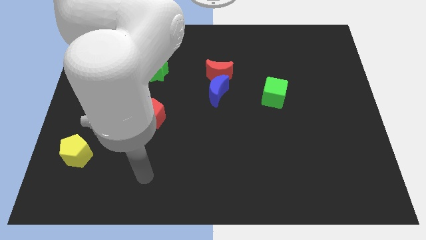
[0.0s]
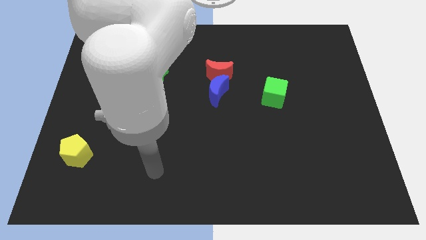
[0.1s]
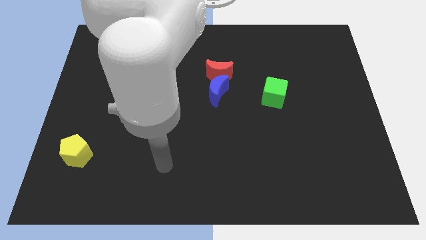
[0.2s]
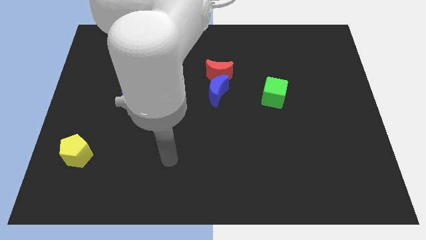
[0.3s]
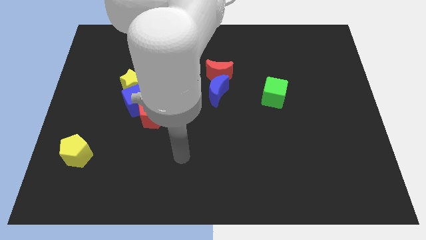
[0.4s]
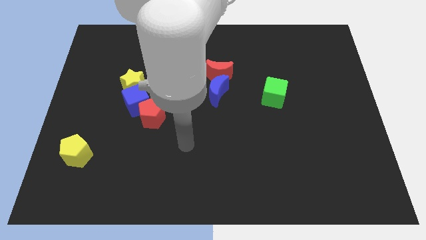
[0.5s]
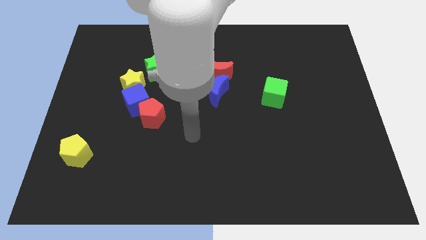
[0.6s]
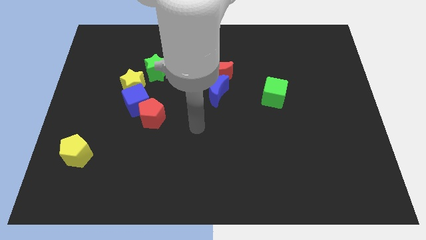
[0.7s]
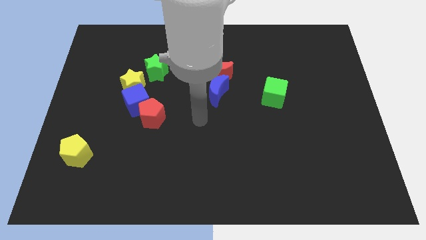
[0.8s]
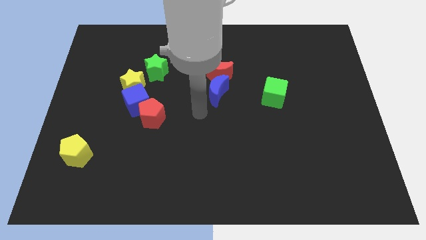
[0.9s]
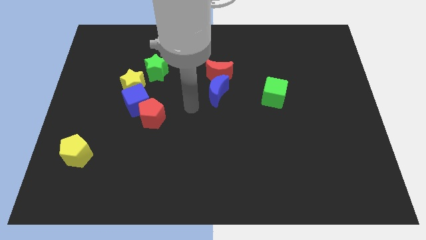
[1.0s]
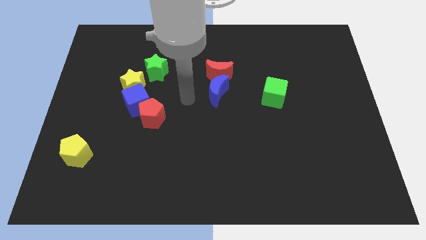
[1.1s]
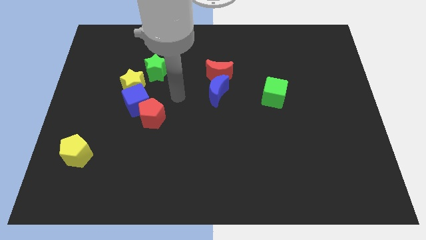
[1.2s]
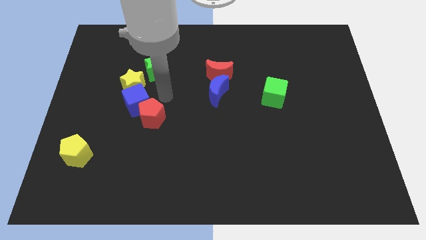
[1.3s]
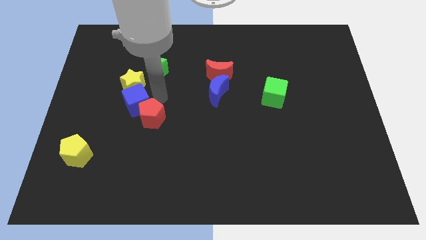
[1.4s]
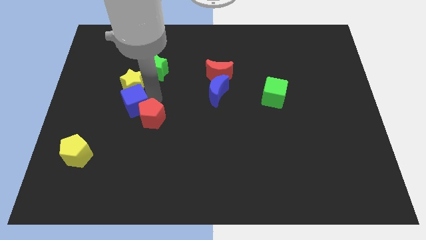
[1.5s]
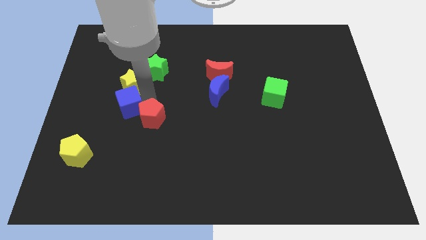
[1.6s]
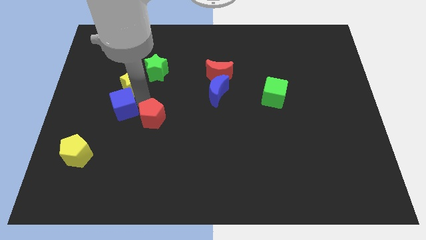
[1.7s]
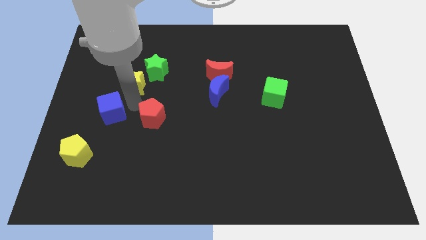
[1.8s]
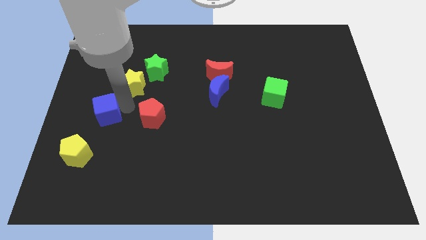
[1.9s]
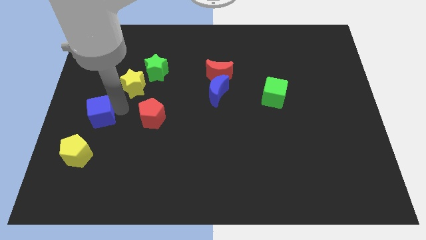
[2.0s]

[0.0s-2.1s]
pull the blue cube apart from the yellow star and red pentagon

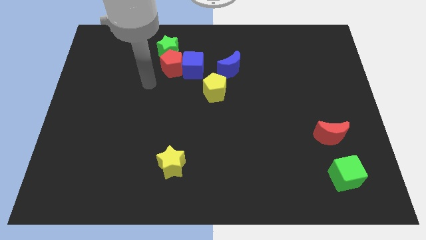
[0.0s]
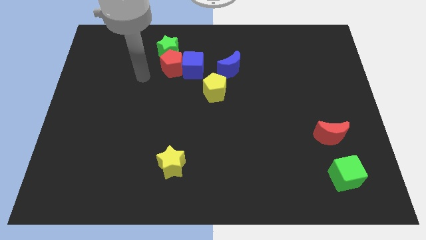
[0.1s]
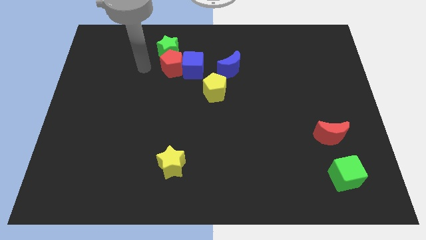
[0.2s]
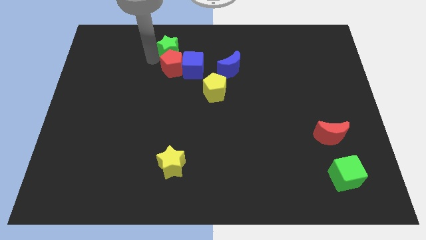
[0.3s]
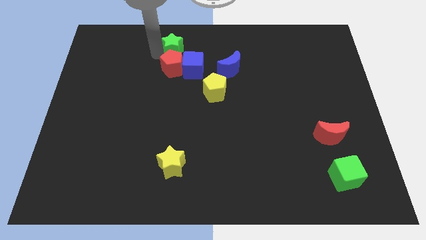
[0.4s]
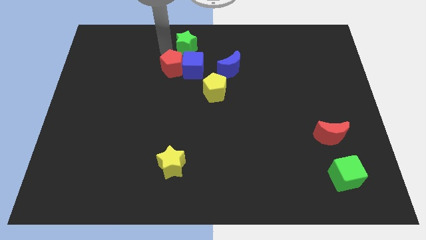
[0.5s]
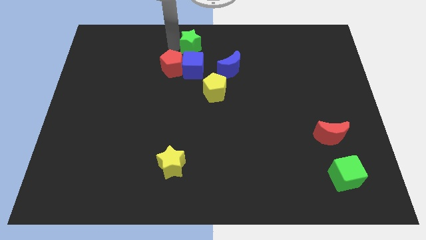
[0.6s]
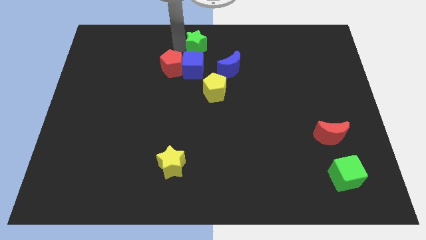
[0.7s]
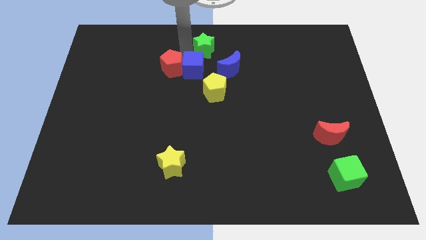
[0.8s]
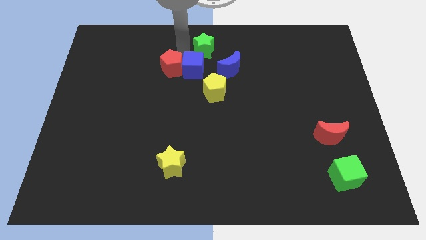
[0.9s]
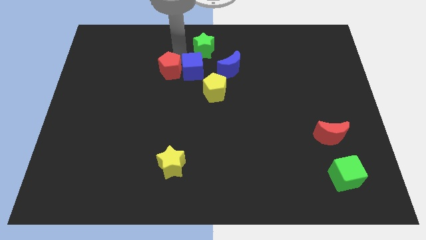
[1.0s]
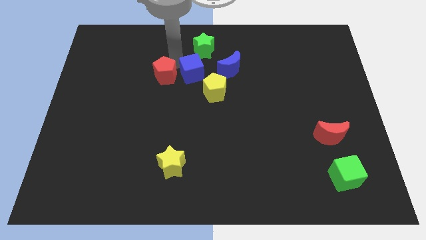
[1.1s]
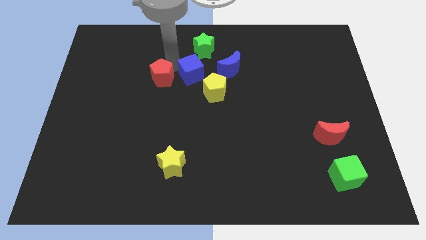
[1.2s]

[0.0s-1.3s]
separate the red pentagon from the blue cube and green star

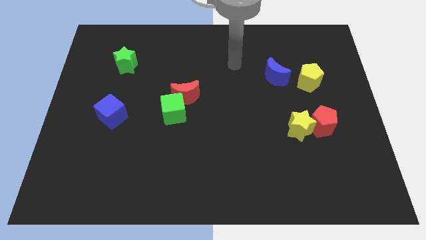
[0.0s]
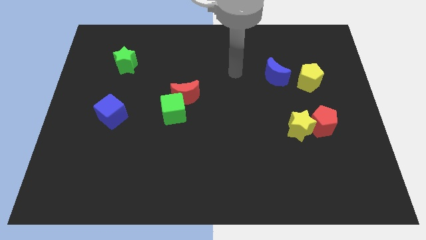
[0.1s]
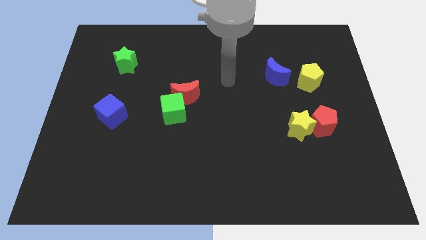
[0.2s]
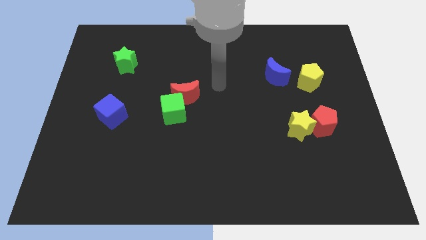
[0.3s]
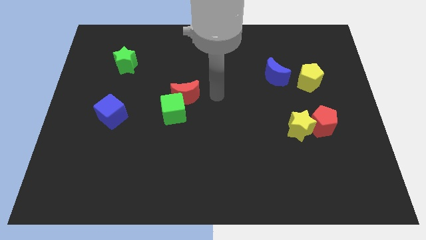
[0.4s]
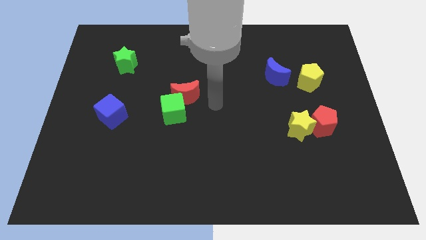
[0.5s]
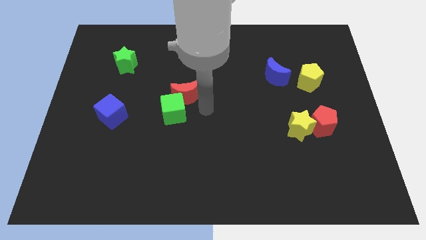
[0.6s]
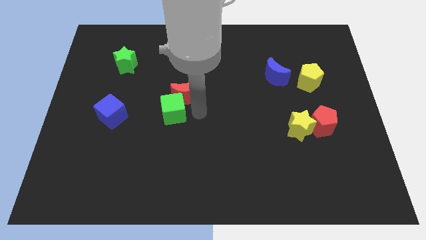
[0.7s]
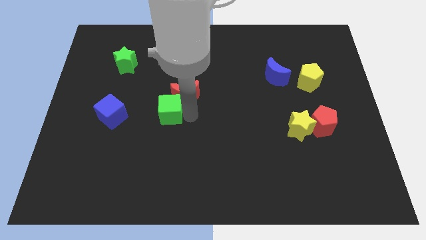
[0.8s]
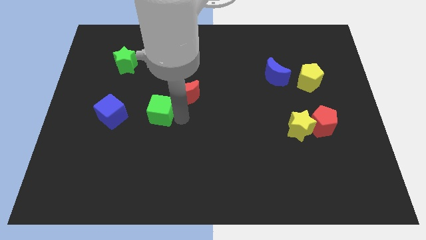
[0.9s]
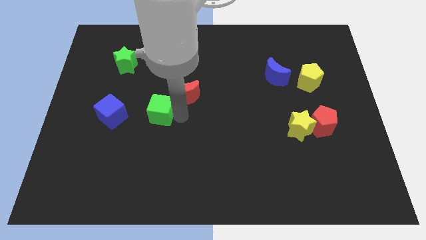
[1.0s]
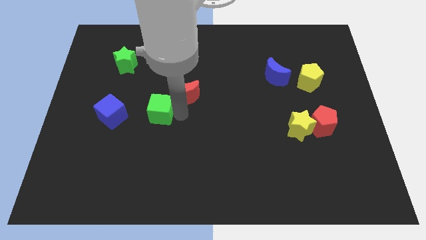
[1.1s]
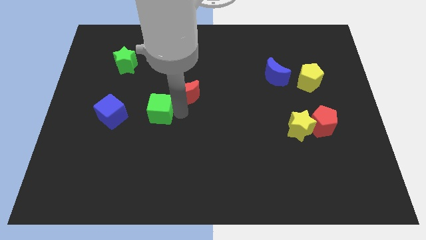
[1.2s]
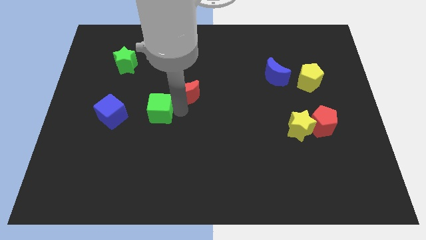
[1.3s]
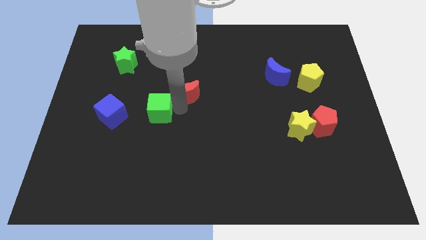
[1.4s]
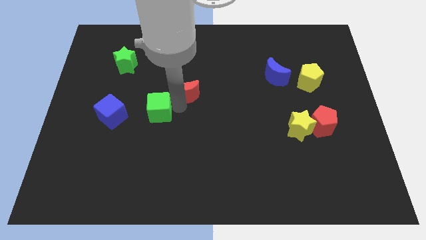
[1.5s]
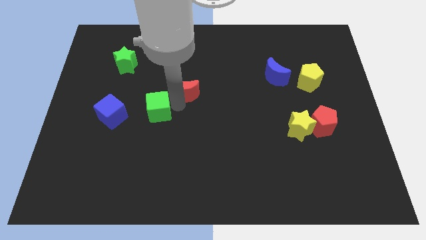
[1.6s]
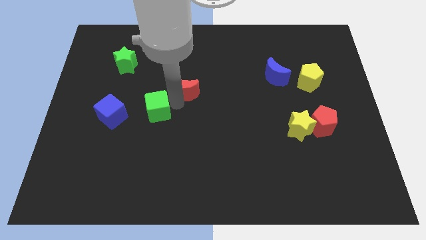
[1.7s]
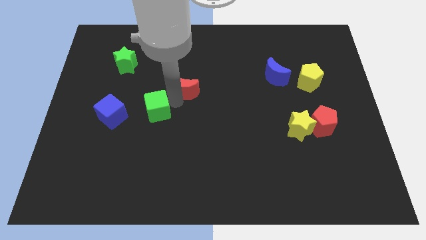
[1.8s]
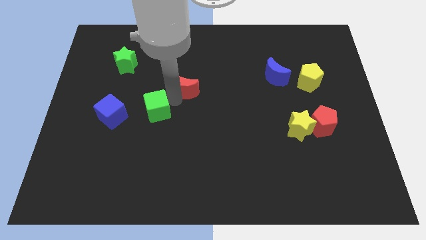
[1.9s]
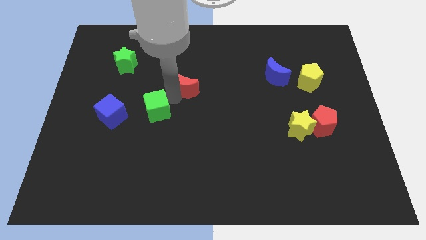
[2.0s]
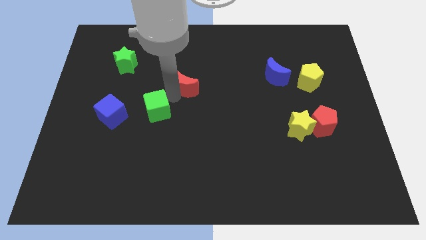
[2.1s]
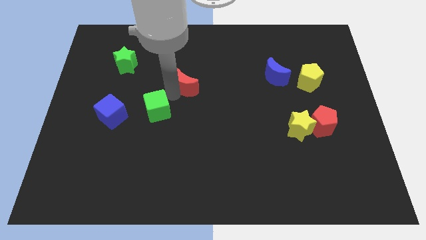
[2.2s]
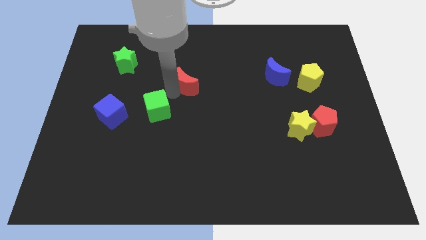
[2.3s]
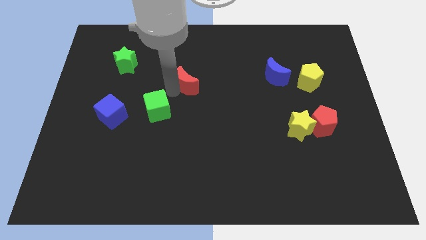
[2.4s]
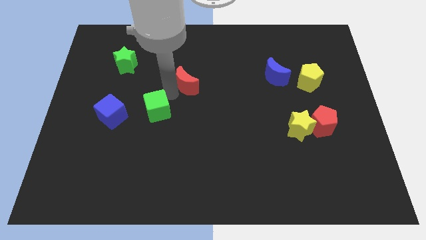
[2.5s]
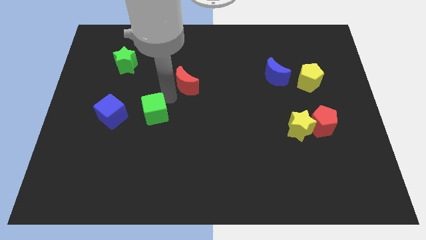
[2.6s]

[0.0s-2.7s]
move the red moon away from the green cube

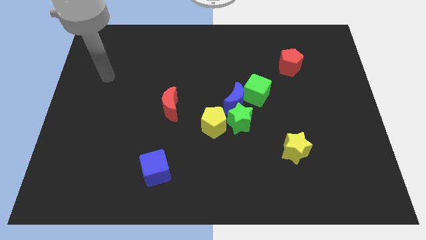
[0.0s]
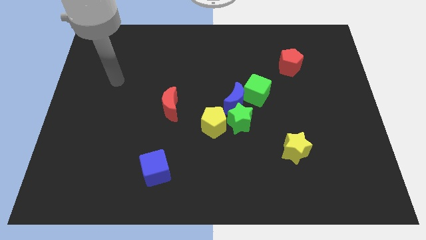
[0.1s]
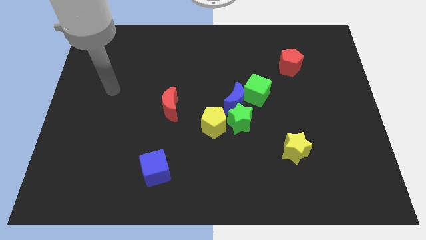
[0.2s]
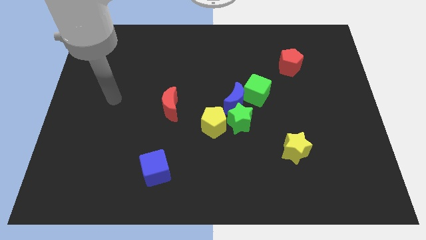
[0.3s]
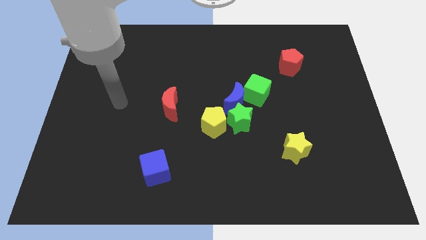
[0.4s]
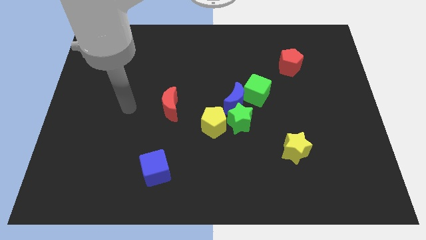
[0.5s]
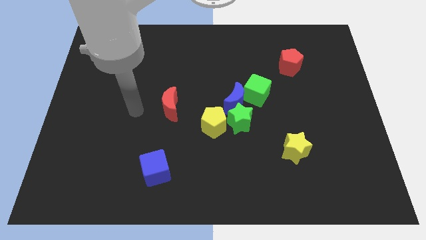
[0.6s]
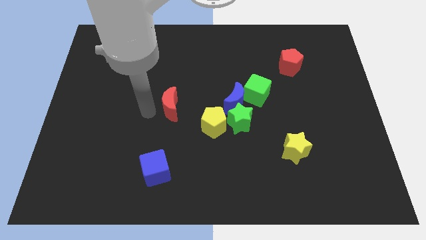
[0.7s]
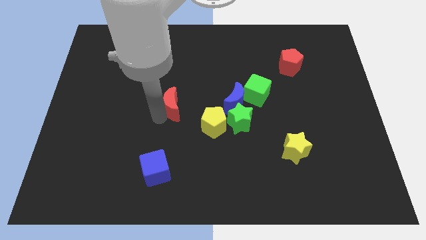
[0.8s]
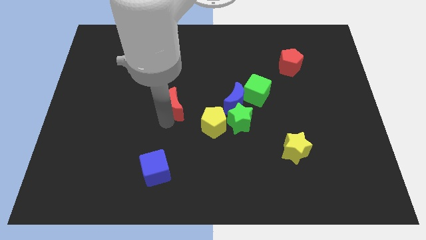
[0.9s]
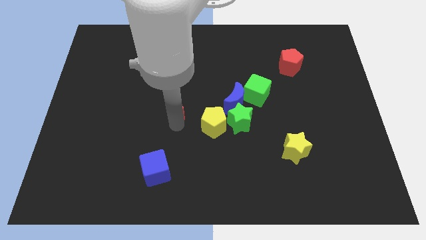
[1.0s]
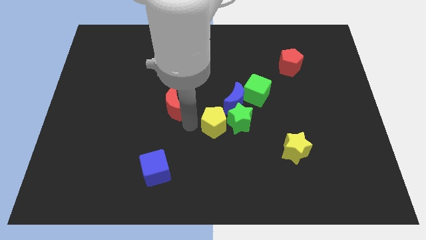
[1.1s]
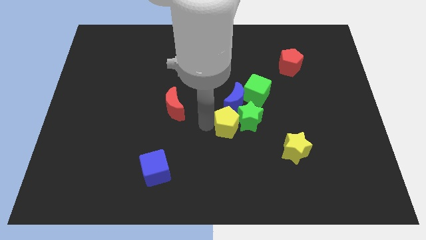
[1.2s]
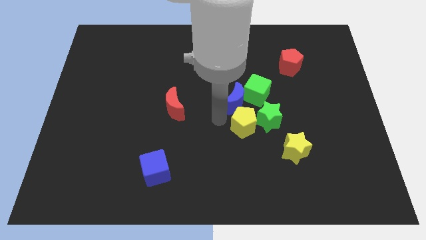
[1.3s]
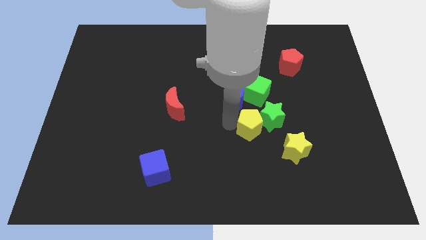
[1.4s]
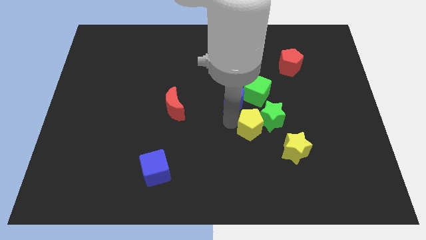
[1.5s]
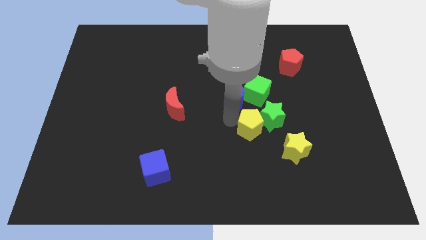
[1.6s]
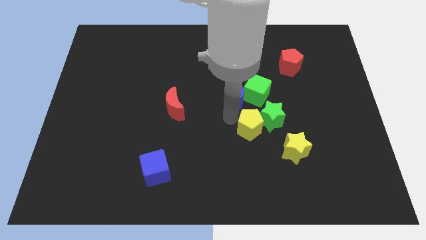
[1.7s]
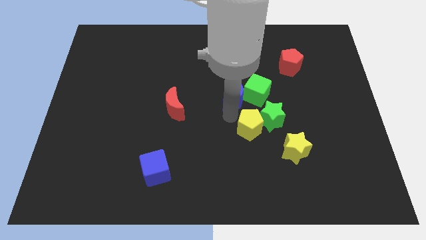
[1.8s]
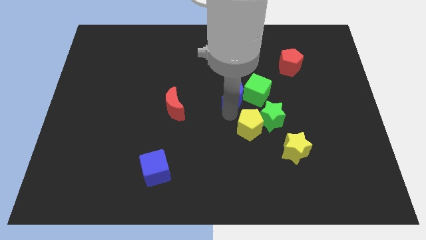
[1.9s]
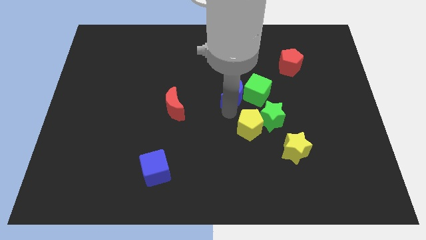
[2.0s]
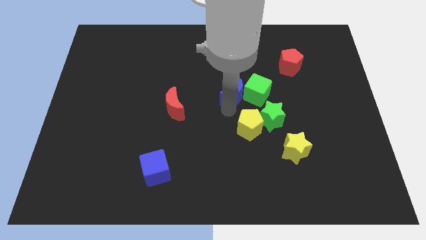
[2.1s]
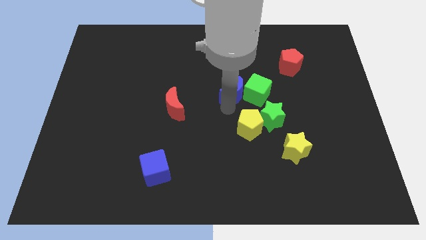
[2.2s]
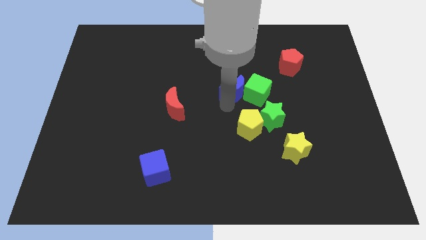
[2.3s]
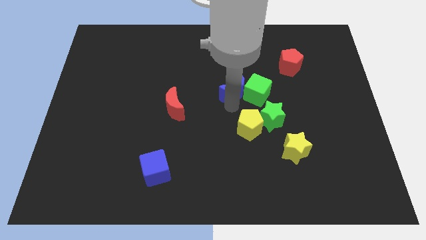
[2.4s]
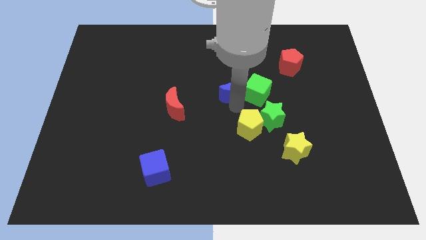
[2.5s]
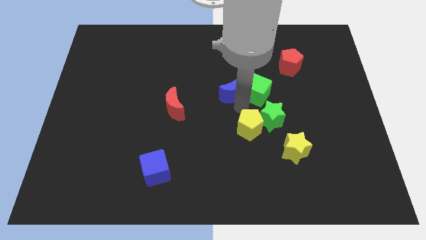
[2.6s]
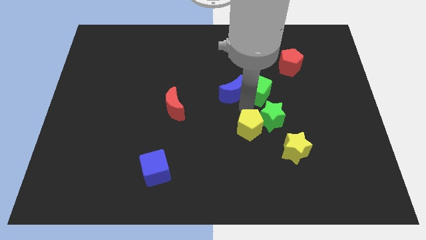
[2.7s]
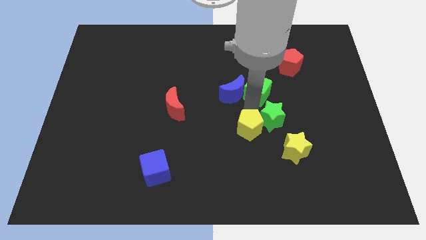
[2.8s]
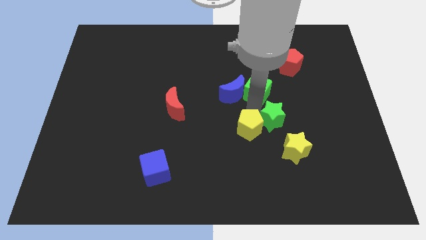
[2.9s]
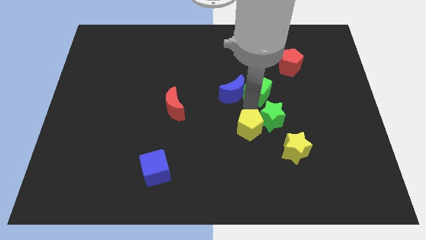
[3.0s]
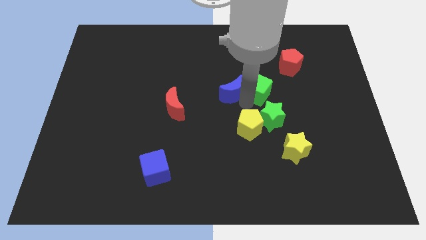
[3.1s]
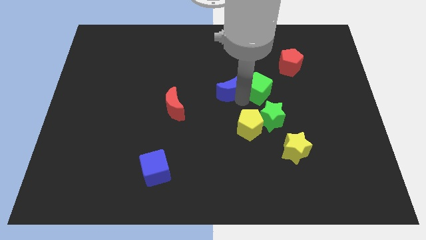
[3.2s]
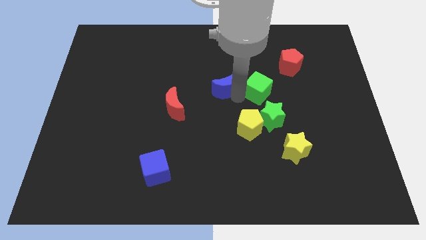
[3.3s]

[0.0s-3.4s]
pull the blue moon apart from the green star, green cube, and yellow pentagon
